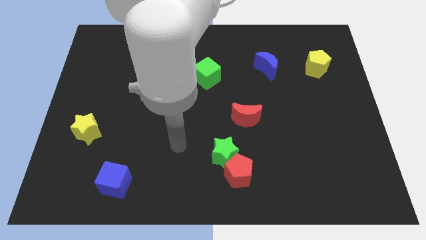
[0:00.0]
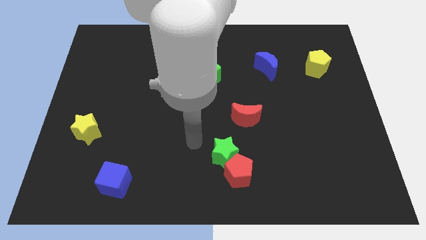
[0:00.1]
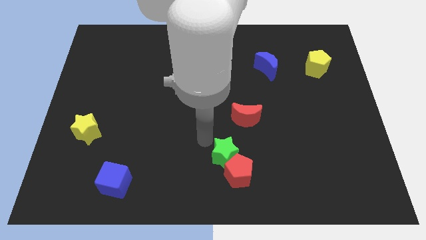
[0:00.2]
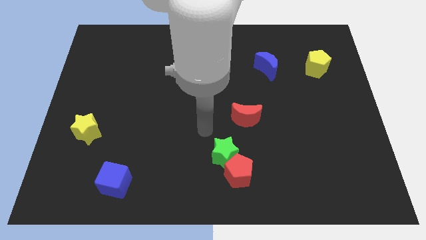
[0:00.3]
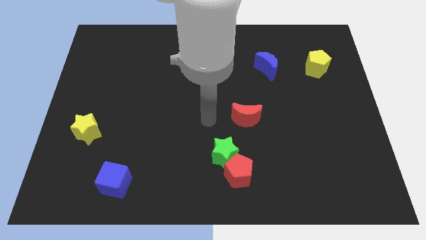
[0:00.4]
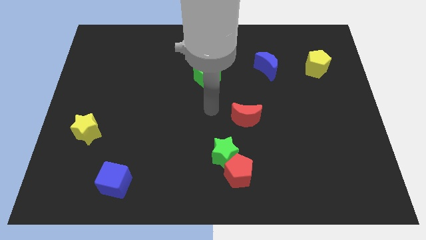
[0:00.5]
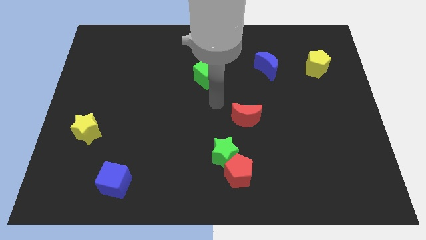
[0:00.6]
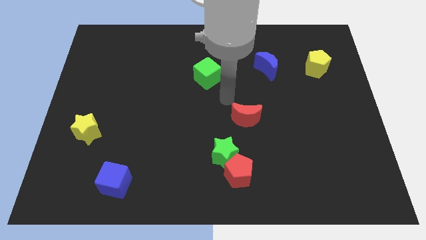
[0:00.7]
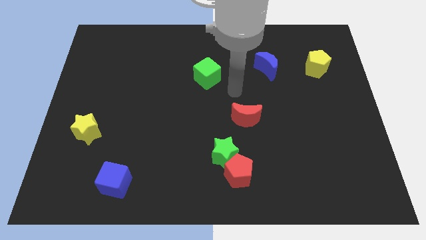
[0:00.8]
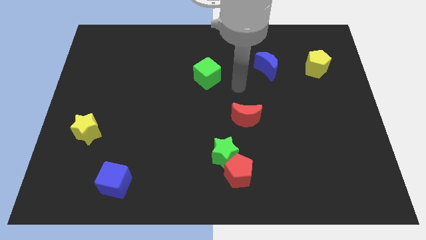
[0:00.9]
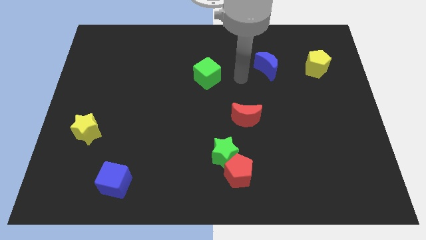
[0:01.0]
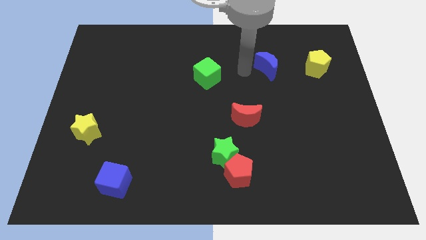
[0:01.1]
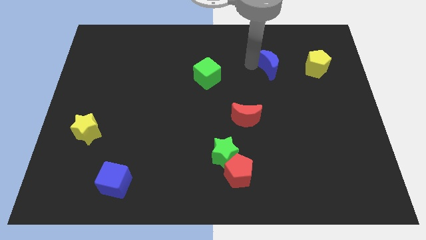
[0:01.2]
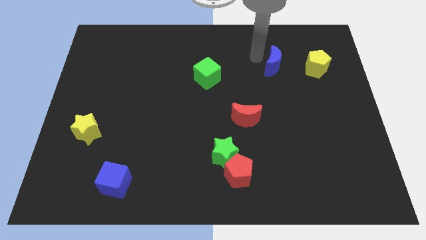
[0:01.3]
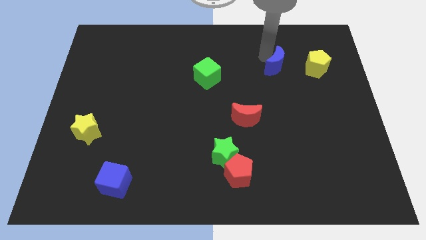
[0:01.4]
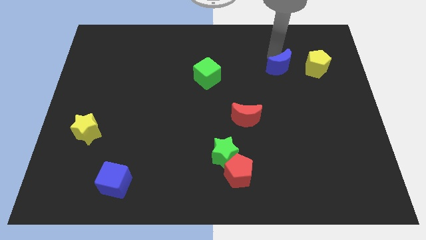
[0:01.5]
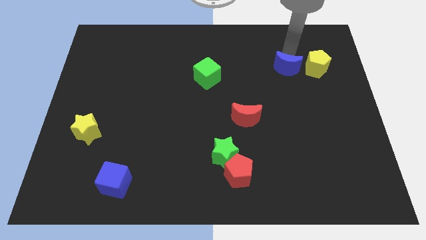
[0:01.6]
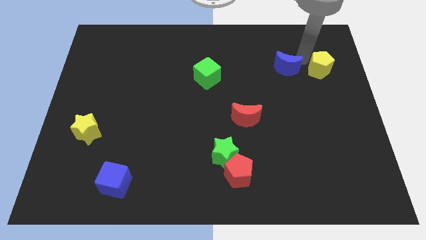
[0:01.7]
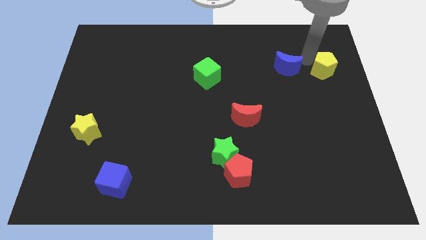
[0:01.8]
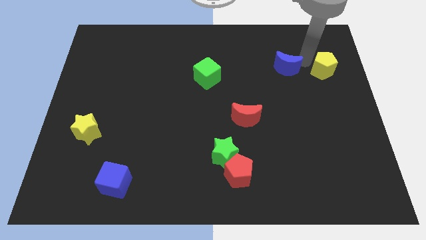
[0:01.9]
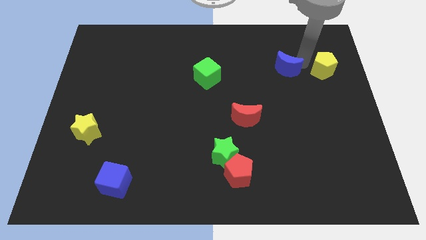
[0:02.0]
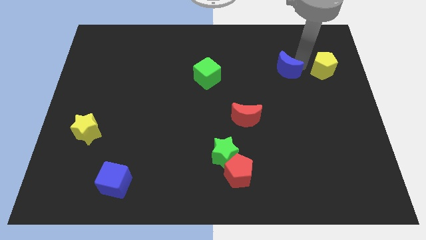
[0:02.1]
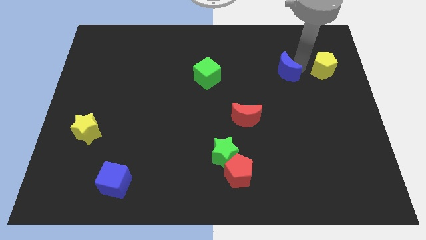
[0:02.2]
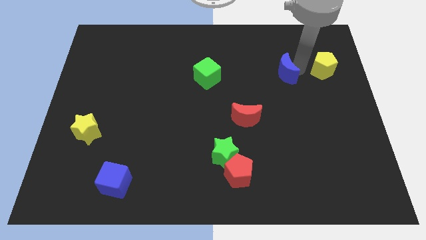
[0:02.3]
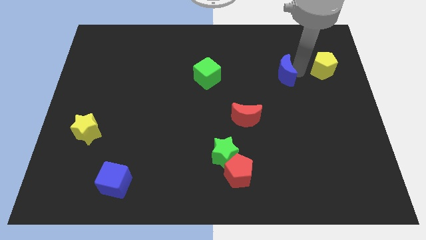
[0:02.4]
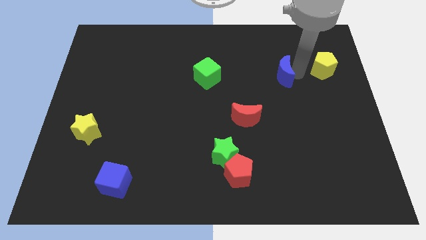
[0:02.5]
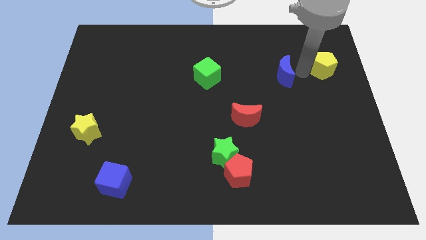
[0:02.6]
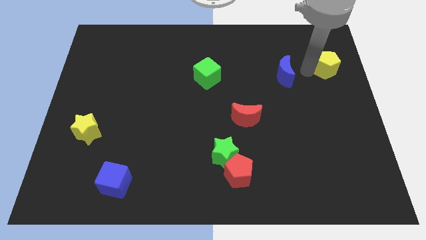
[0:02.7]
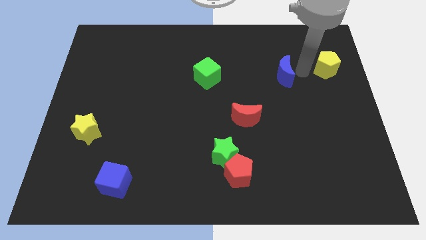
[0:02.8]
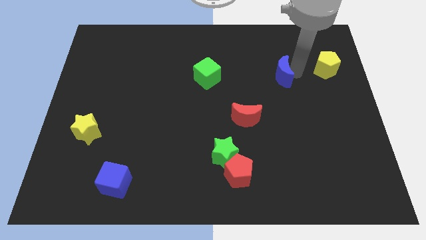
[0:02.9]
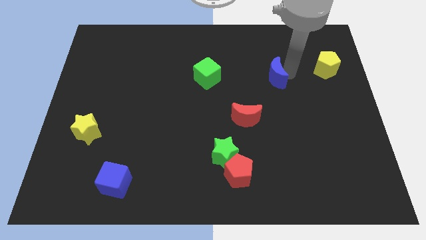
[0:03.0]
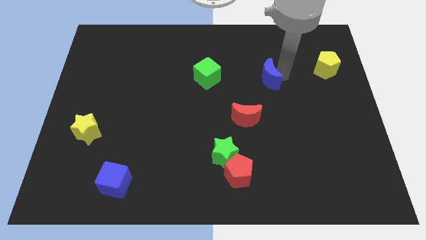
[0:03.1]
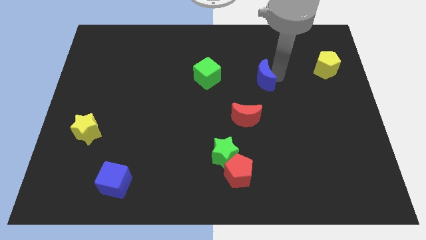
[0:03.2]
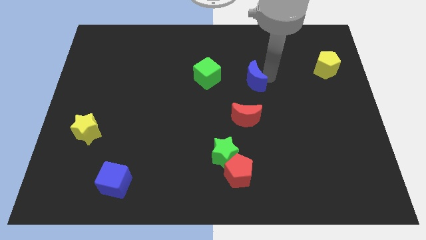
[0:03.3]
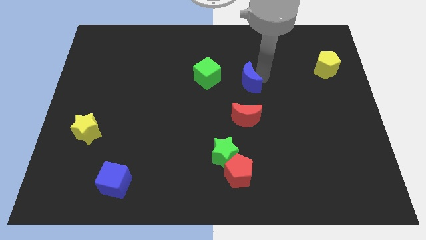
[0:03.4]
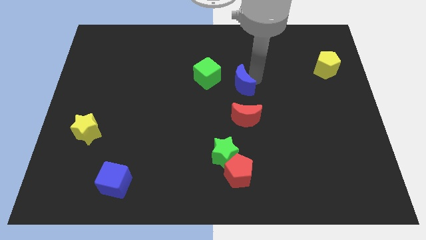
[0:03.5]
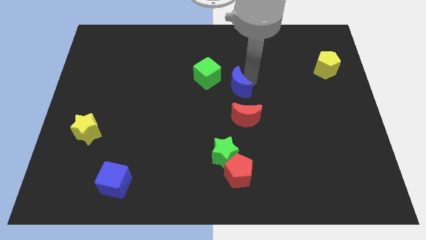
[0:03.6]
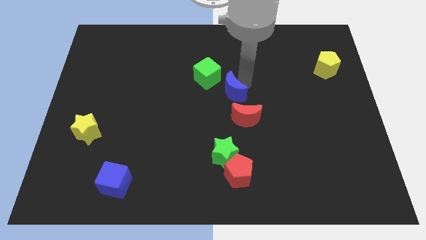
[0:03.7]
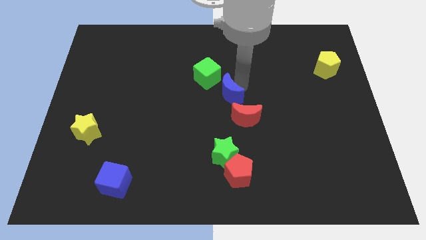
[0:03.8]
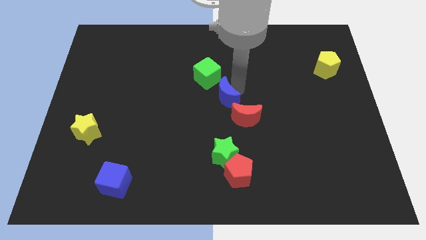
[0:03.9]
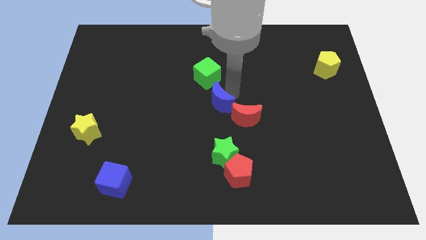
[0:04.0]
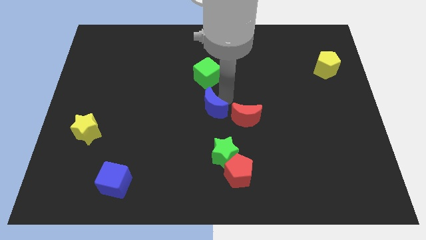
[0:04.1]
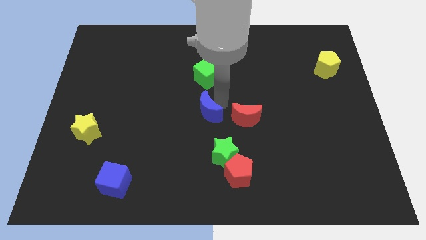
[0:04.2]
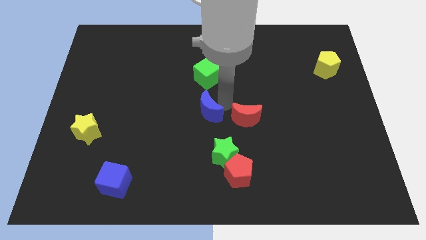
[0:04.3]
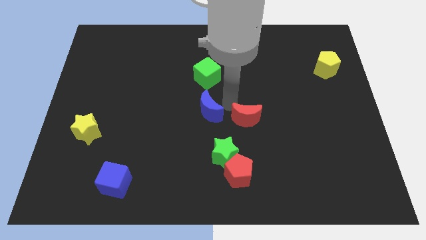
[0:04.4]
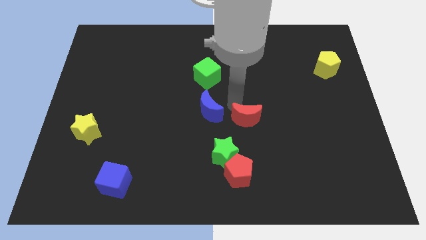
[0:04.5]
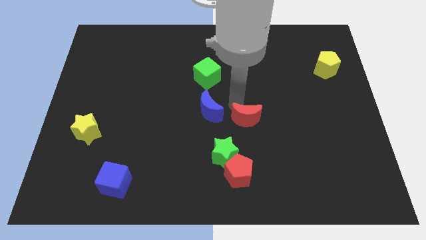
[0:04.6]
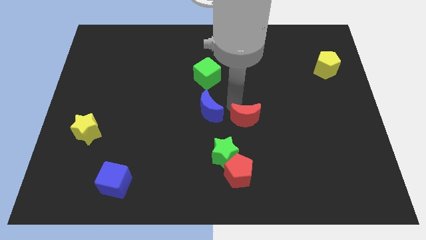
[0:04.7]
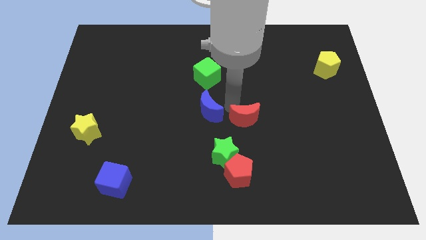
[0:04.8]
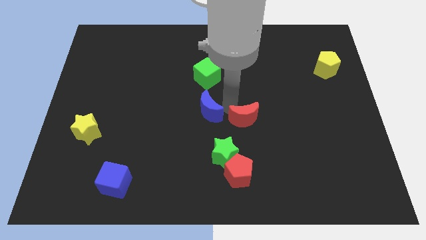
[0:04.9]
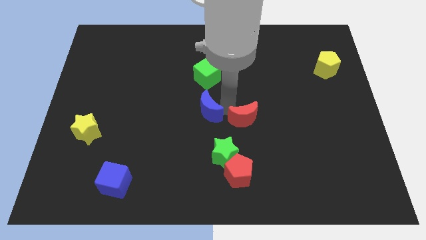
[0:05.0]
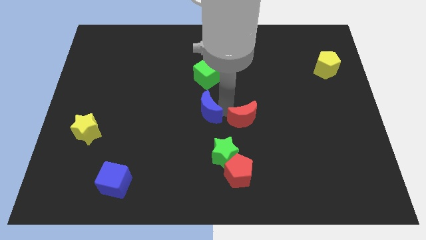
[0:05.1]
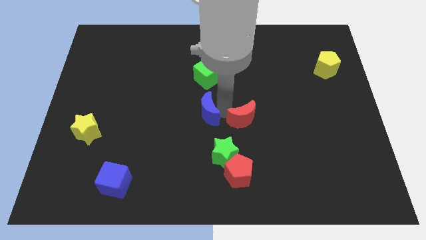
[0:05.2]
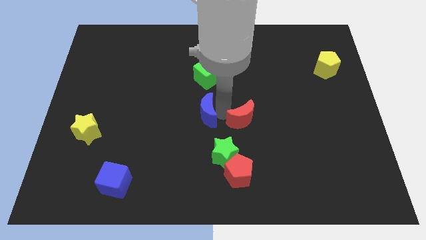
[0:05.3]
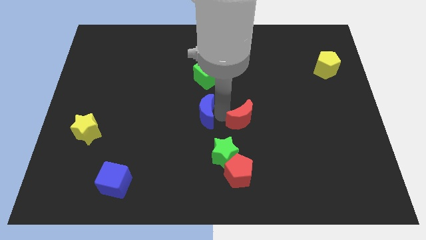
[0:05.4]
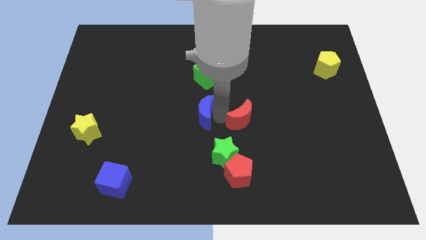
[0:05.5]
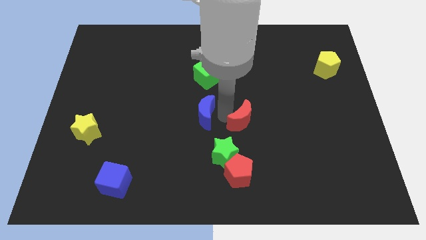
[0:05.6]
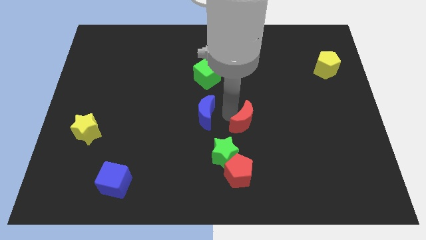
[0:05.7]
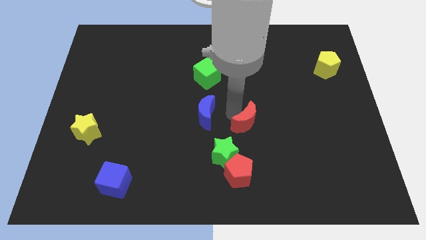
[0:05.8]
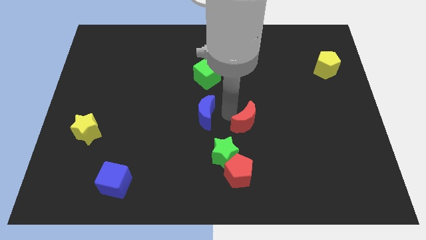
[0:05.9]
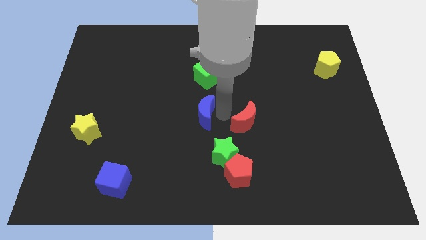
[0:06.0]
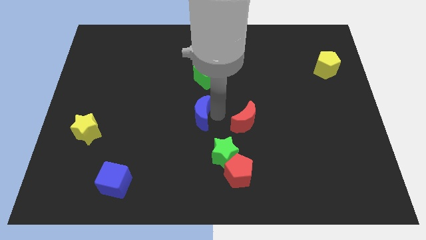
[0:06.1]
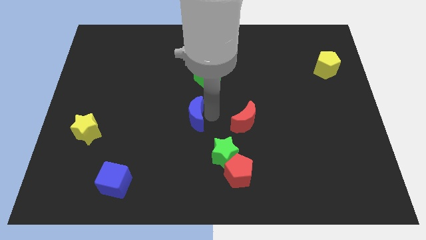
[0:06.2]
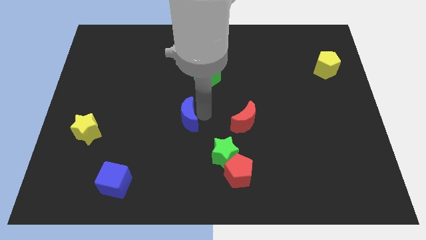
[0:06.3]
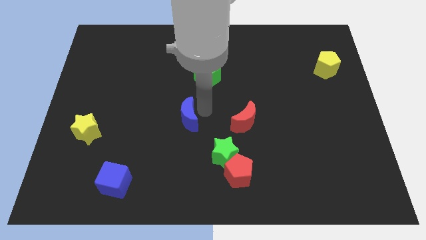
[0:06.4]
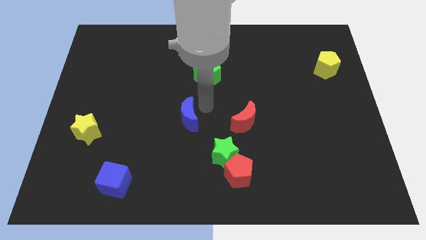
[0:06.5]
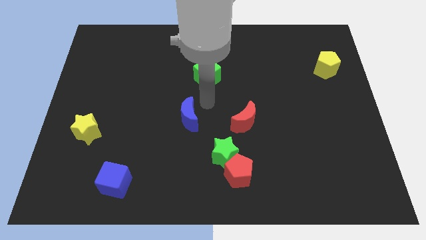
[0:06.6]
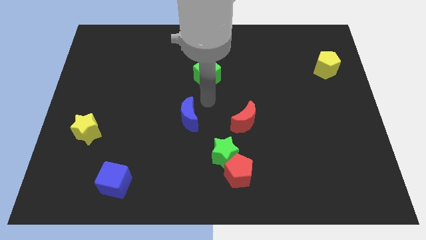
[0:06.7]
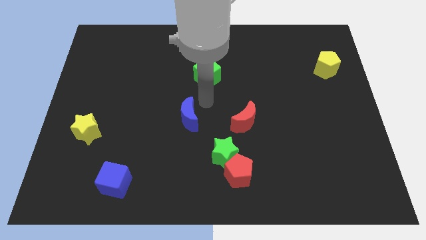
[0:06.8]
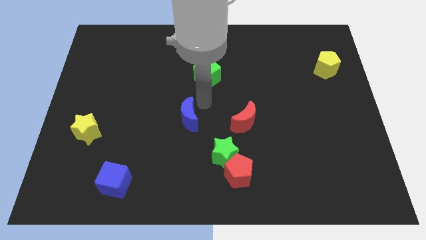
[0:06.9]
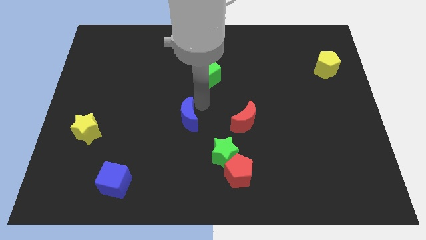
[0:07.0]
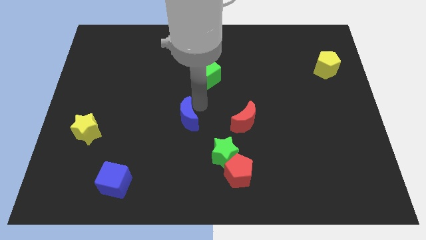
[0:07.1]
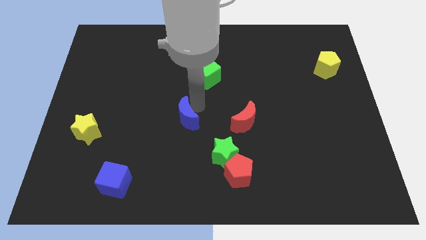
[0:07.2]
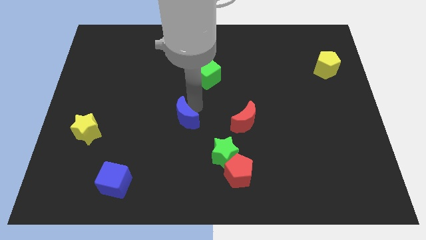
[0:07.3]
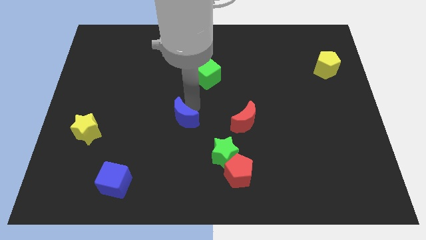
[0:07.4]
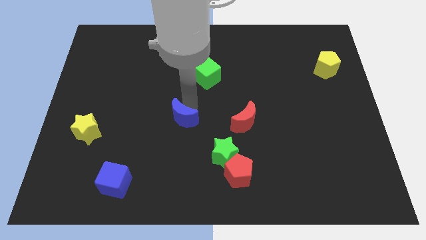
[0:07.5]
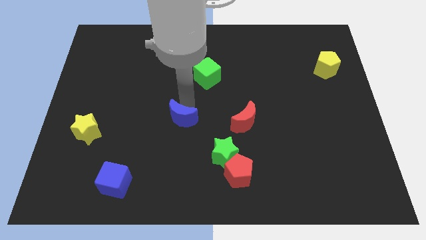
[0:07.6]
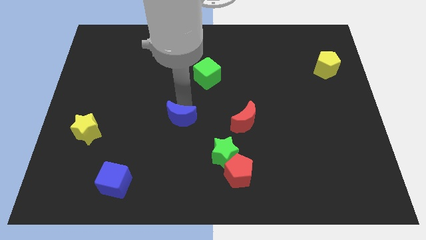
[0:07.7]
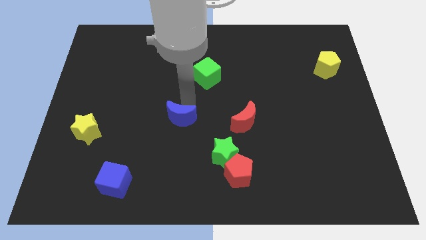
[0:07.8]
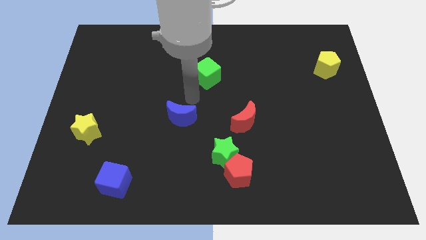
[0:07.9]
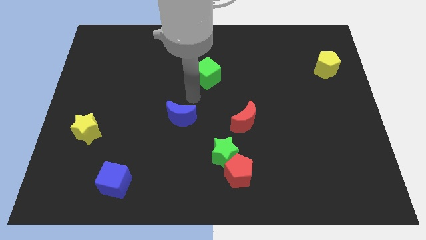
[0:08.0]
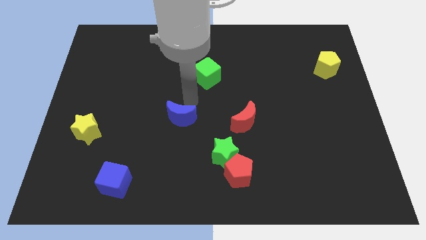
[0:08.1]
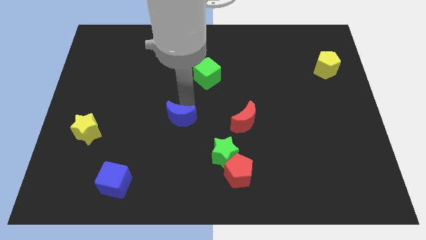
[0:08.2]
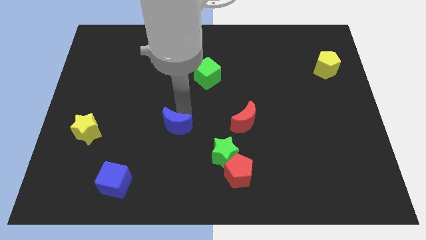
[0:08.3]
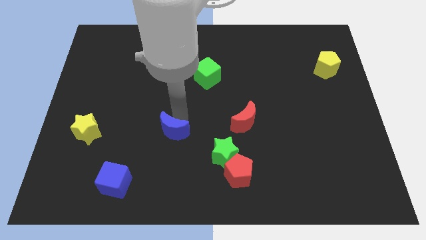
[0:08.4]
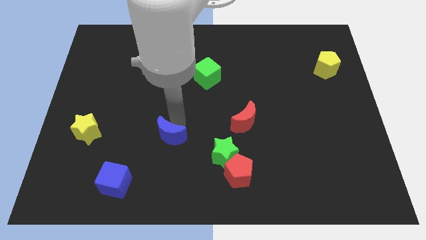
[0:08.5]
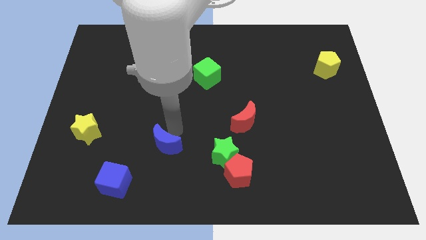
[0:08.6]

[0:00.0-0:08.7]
slide the blue moon diagonally up and to the right of the blue cube
